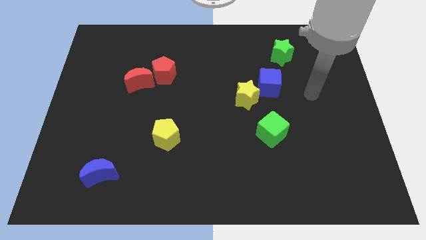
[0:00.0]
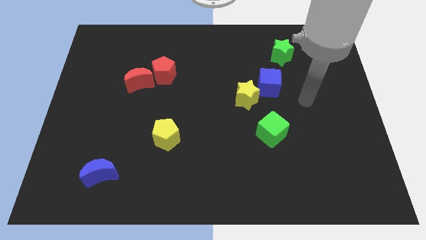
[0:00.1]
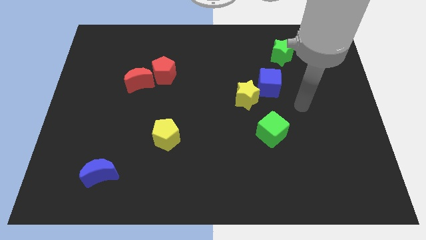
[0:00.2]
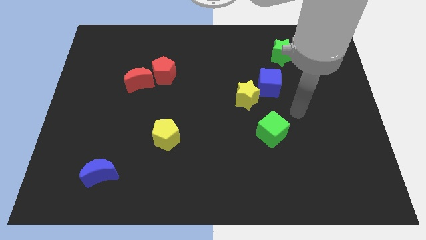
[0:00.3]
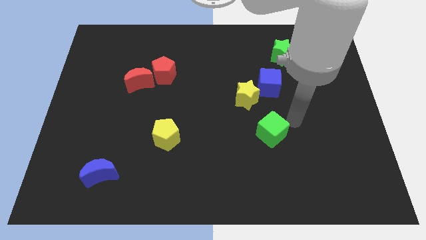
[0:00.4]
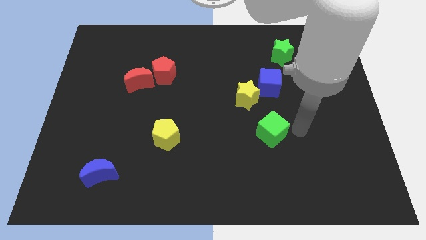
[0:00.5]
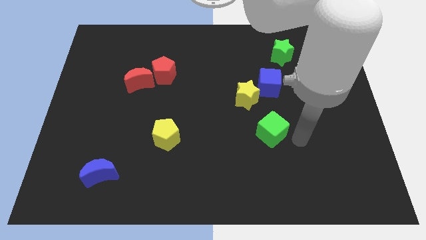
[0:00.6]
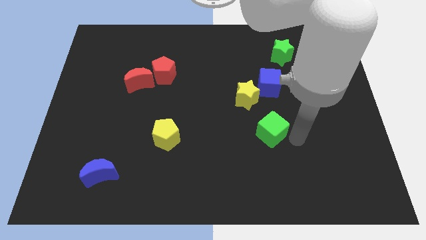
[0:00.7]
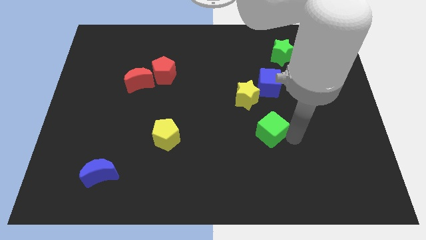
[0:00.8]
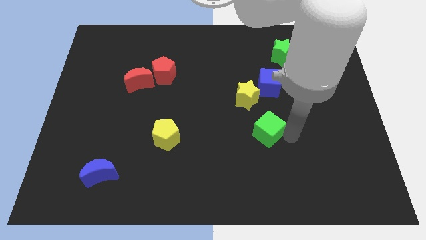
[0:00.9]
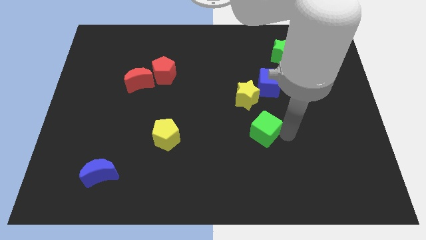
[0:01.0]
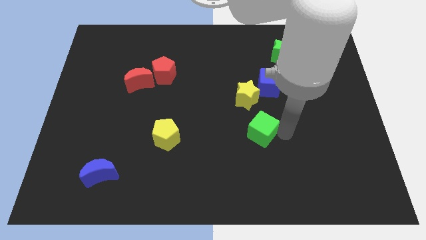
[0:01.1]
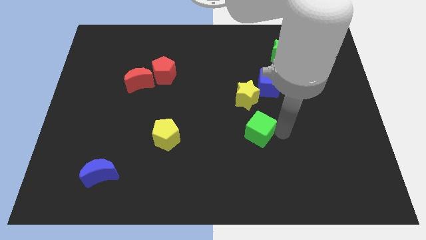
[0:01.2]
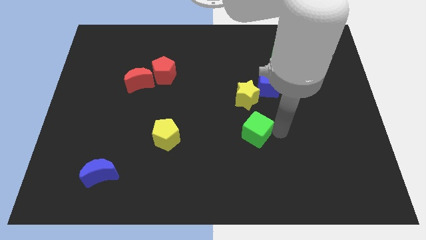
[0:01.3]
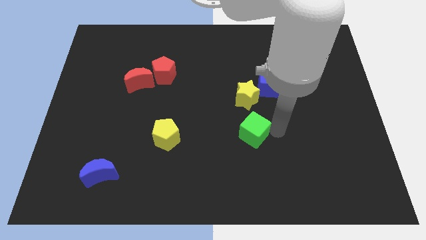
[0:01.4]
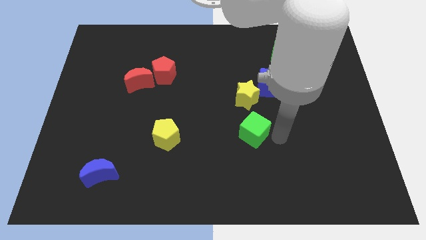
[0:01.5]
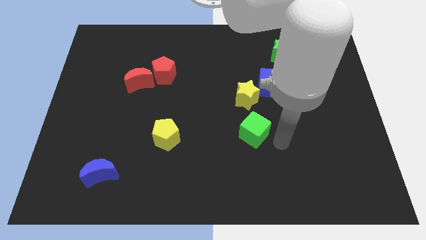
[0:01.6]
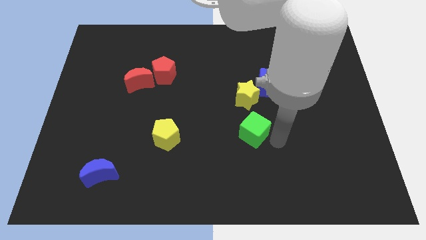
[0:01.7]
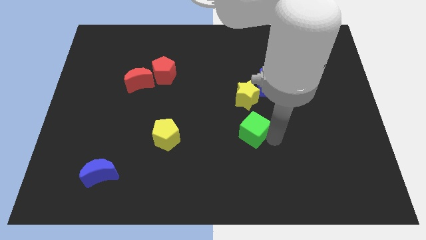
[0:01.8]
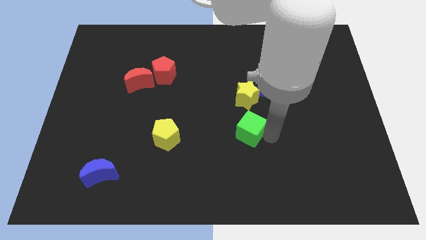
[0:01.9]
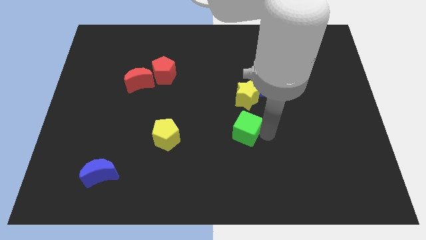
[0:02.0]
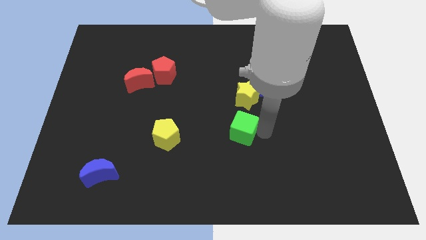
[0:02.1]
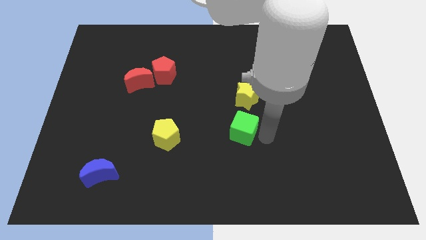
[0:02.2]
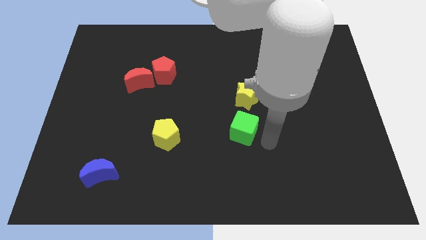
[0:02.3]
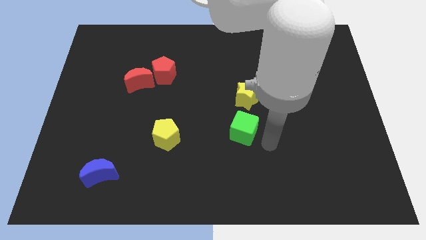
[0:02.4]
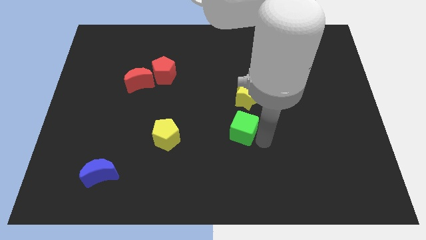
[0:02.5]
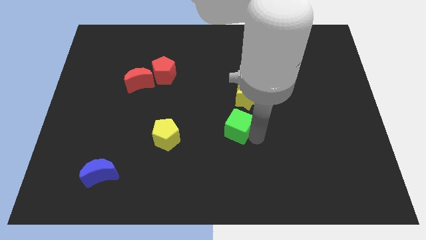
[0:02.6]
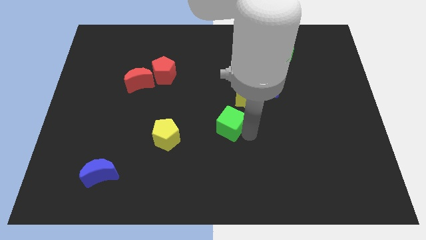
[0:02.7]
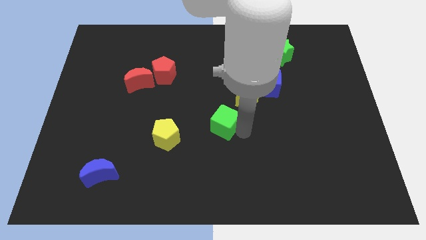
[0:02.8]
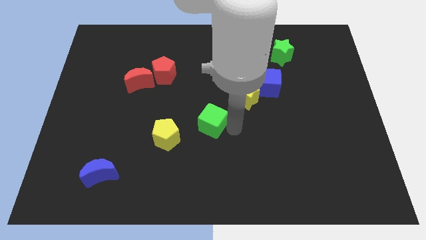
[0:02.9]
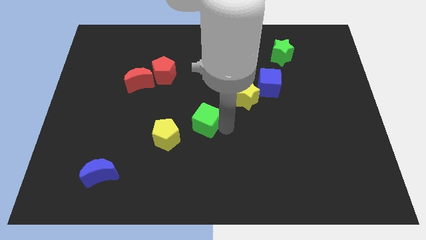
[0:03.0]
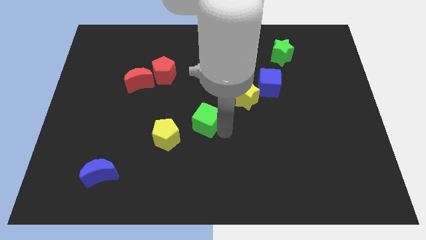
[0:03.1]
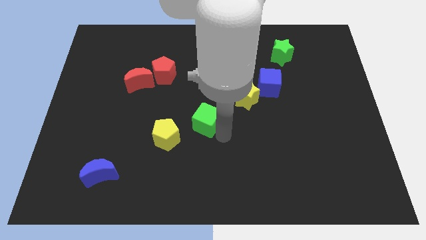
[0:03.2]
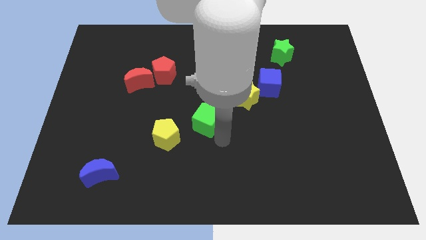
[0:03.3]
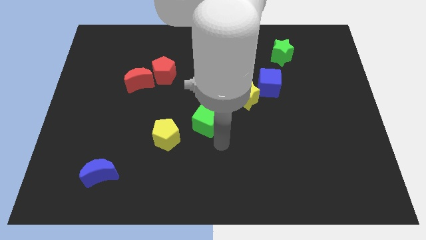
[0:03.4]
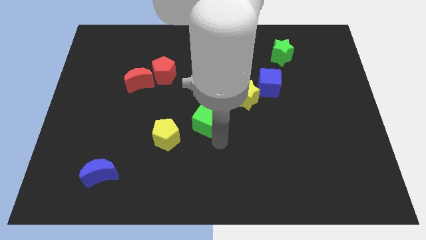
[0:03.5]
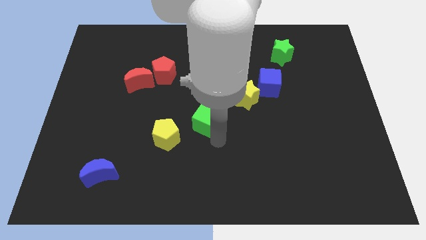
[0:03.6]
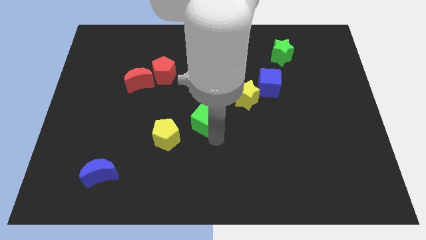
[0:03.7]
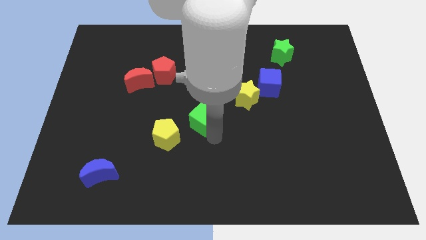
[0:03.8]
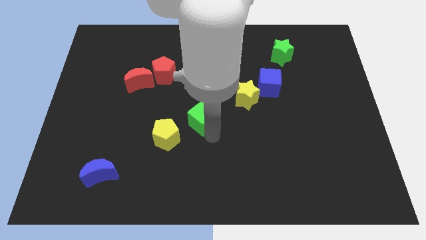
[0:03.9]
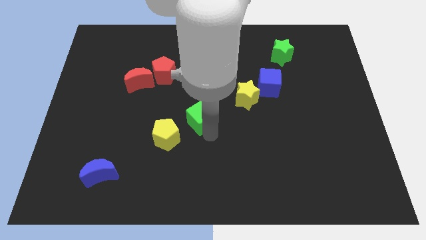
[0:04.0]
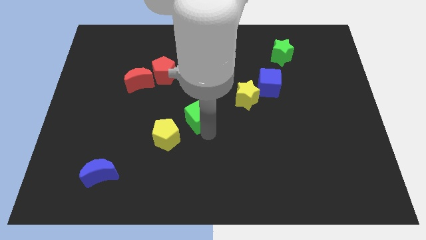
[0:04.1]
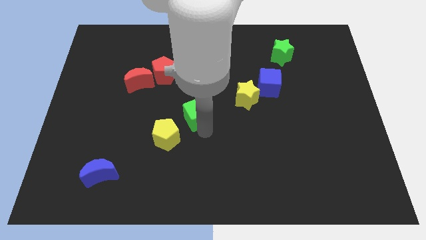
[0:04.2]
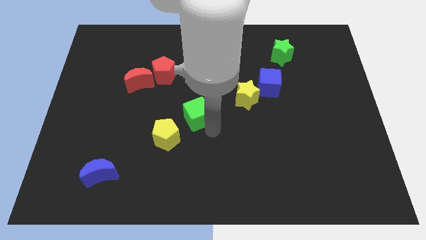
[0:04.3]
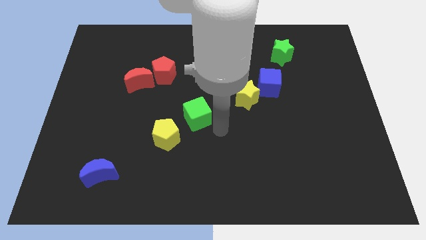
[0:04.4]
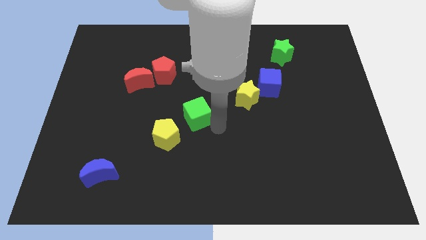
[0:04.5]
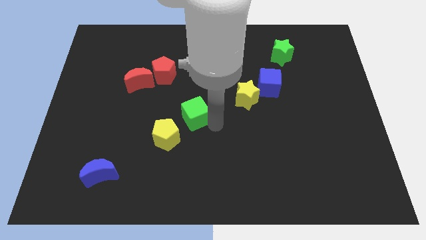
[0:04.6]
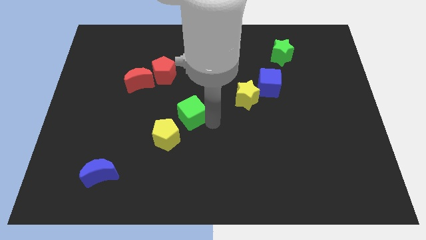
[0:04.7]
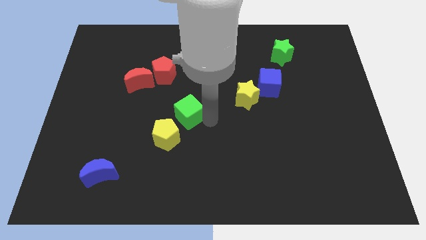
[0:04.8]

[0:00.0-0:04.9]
move the green cube above the yellow pentagon

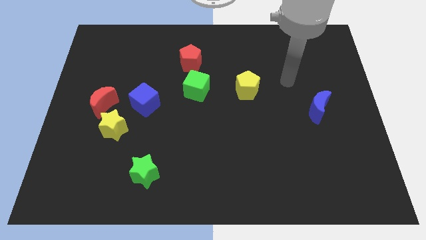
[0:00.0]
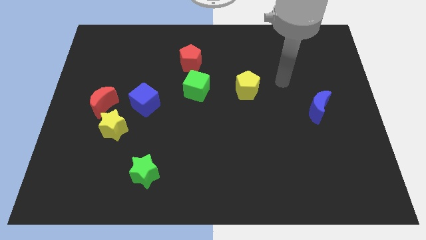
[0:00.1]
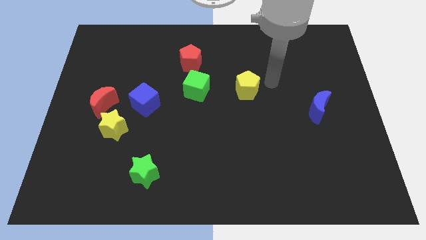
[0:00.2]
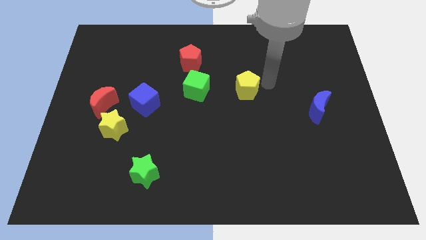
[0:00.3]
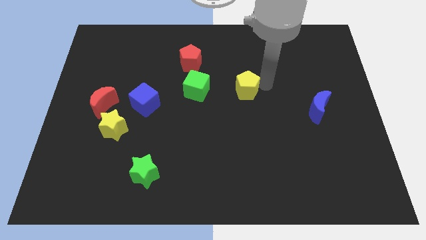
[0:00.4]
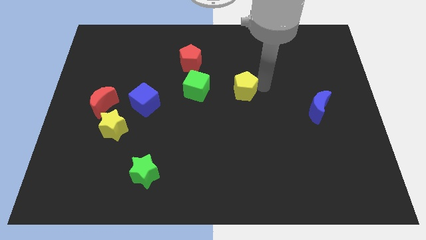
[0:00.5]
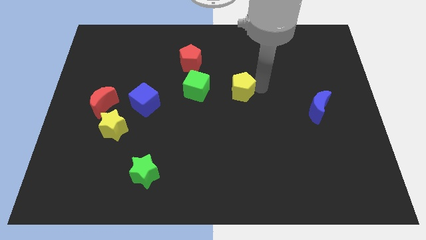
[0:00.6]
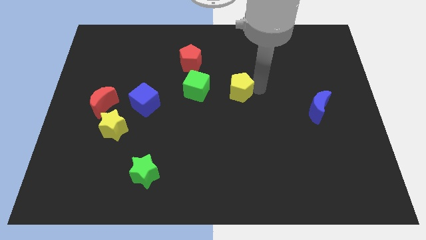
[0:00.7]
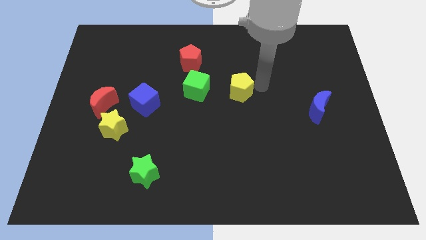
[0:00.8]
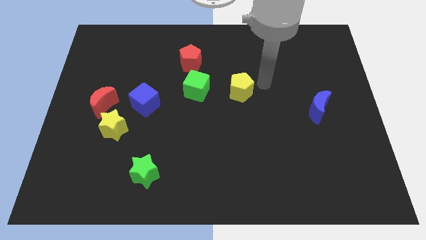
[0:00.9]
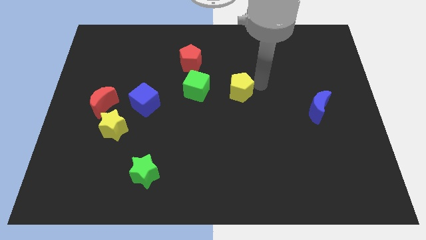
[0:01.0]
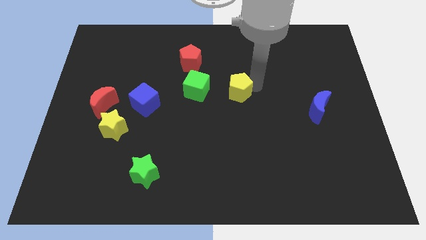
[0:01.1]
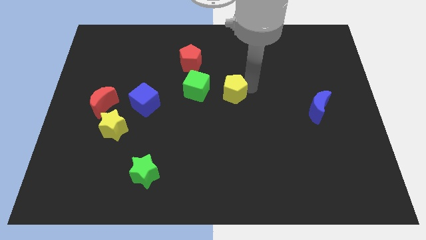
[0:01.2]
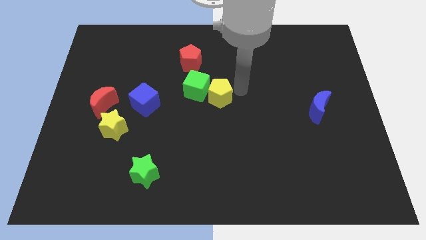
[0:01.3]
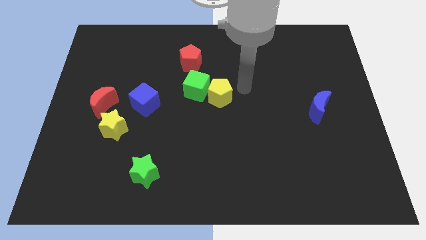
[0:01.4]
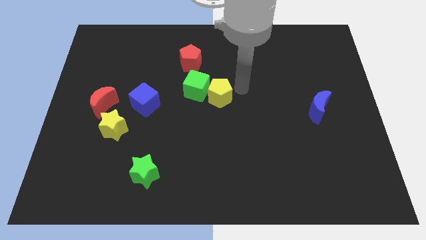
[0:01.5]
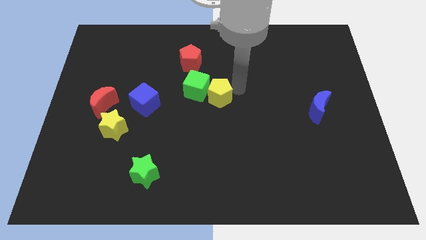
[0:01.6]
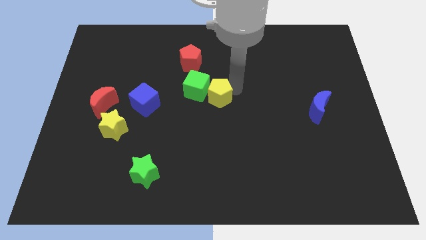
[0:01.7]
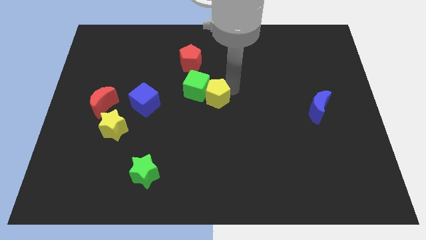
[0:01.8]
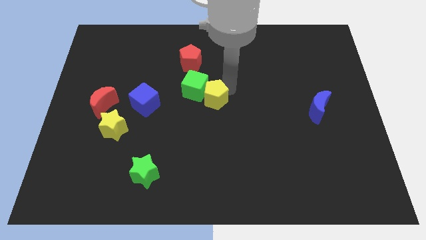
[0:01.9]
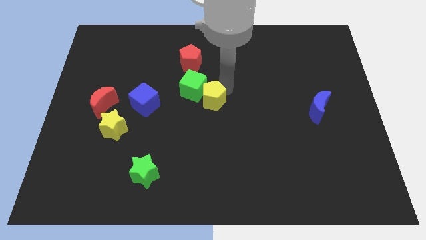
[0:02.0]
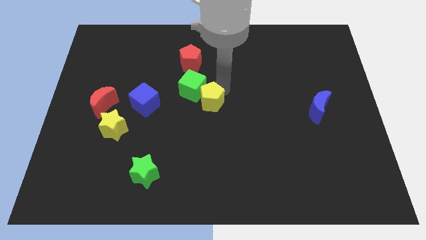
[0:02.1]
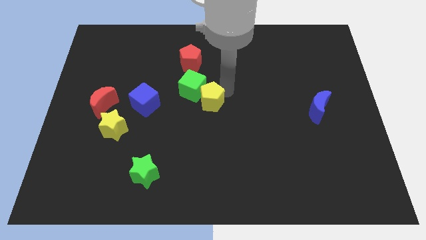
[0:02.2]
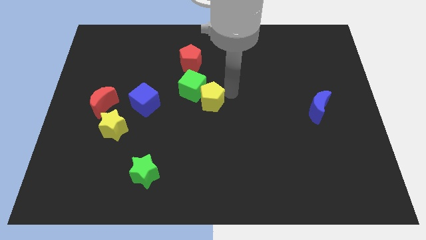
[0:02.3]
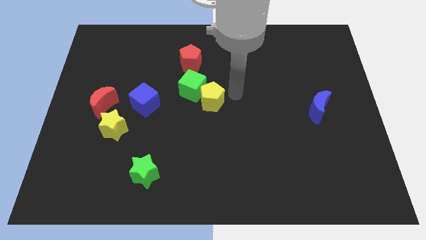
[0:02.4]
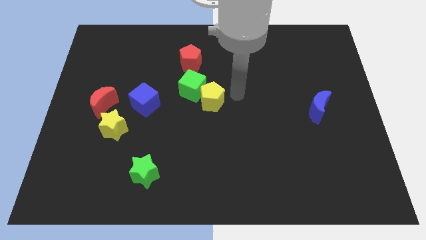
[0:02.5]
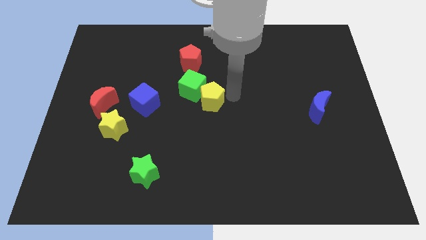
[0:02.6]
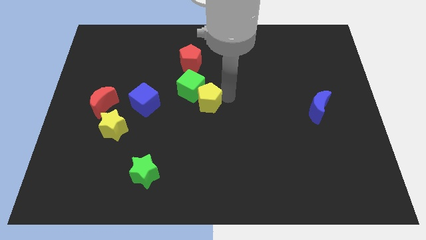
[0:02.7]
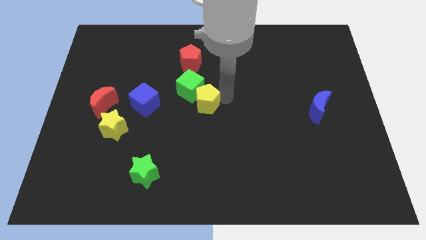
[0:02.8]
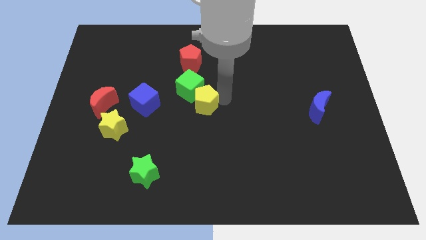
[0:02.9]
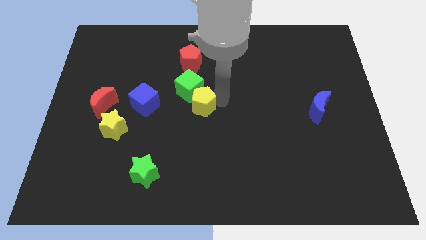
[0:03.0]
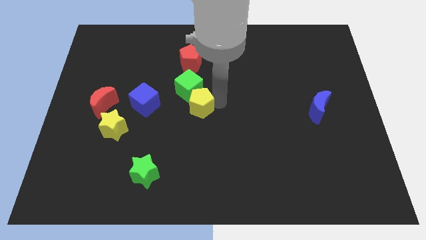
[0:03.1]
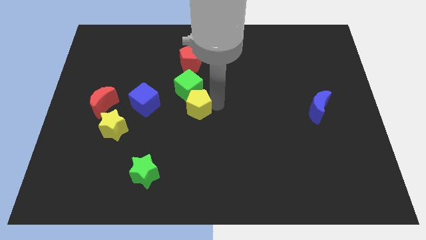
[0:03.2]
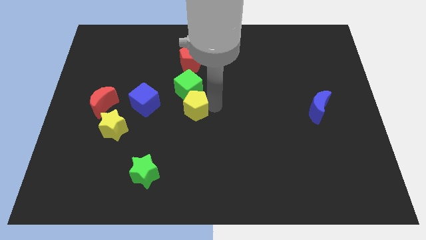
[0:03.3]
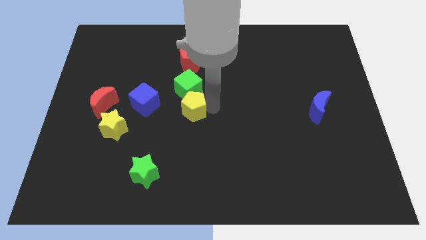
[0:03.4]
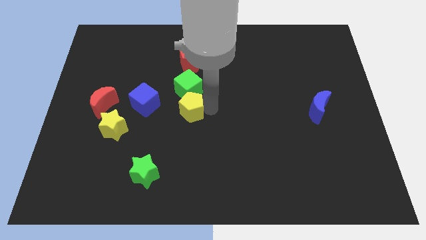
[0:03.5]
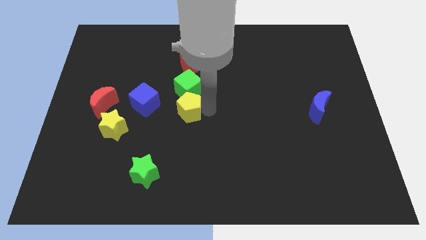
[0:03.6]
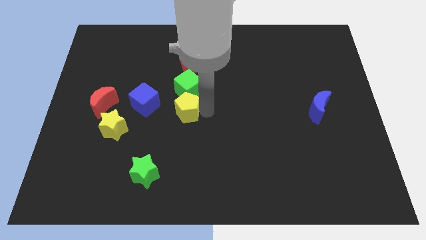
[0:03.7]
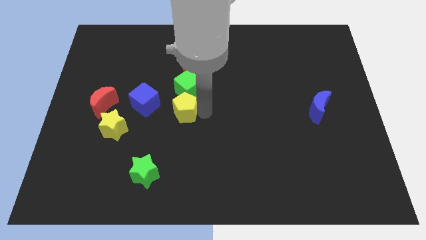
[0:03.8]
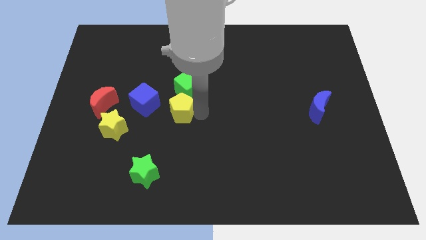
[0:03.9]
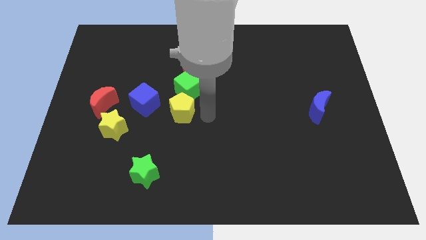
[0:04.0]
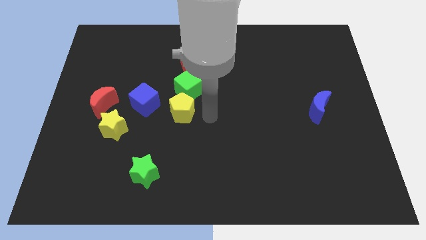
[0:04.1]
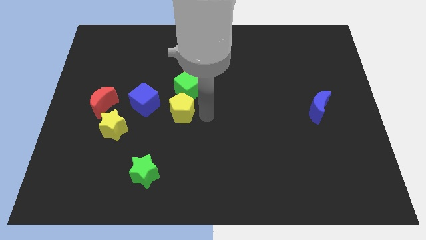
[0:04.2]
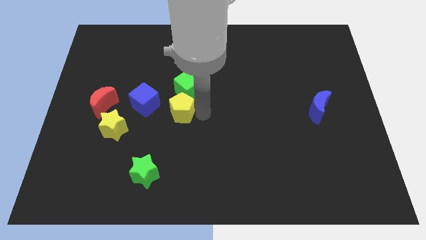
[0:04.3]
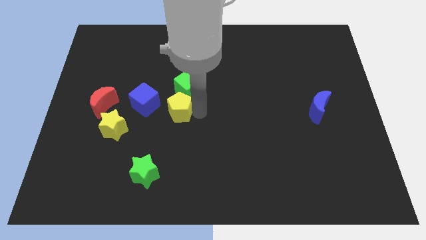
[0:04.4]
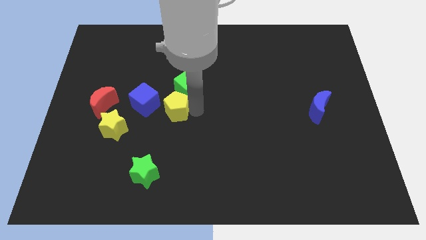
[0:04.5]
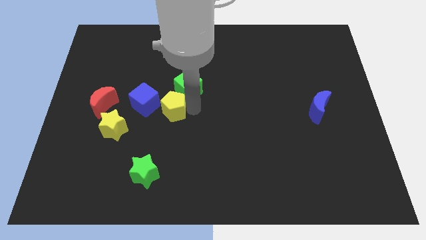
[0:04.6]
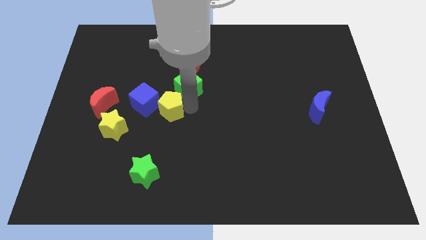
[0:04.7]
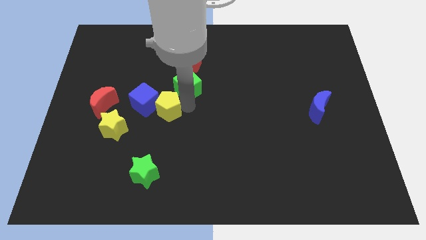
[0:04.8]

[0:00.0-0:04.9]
slide the yellow pentagon to the right of the red moon
